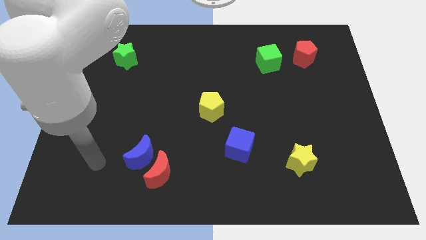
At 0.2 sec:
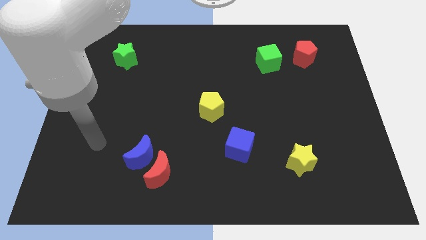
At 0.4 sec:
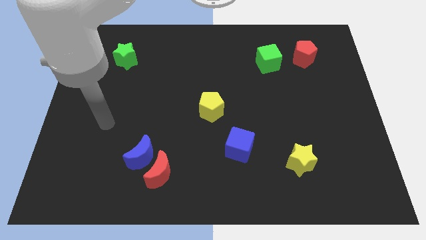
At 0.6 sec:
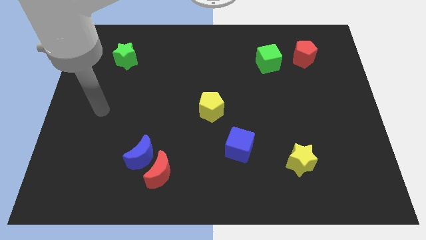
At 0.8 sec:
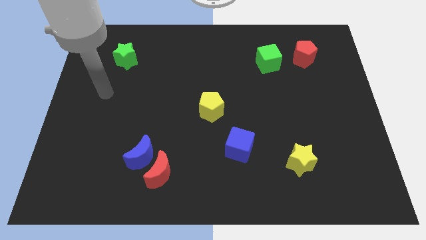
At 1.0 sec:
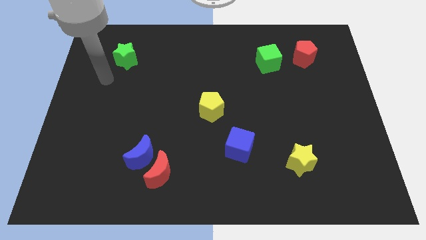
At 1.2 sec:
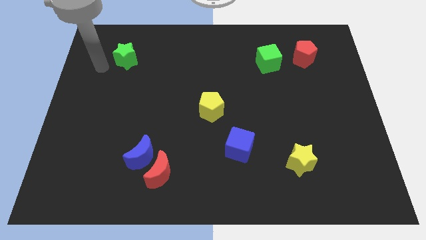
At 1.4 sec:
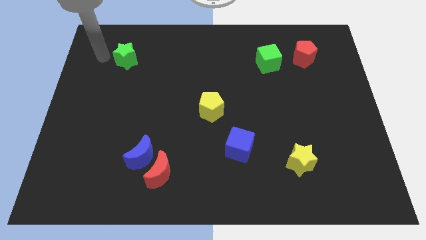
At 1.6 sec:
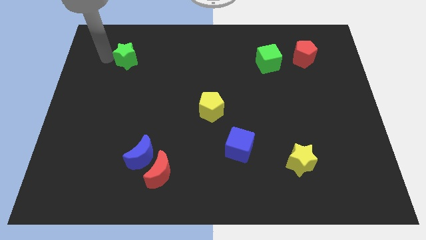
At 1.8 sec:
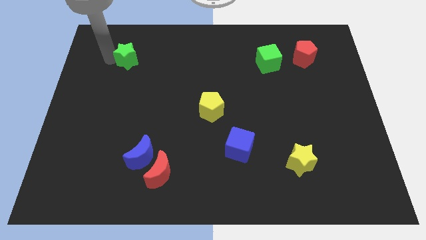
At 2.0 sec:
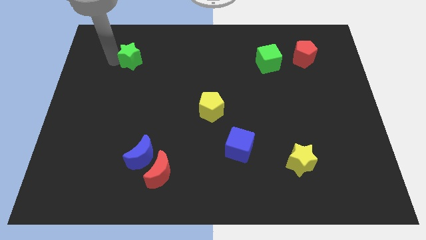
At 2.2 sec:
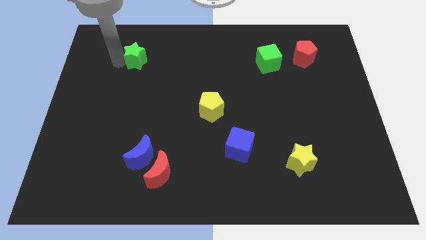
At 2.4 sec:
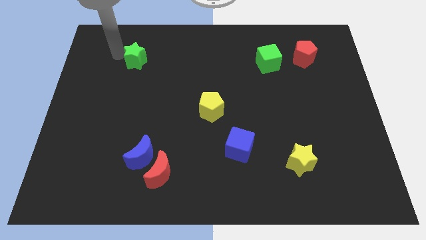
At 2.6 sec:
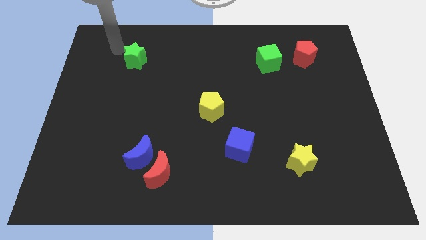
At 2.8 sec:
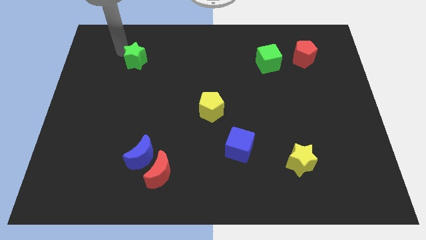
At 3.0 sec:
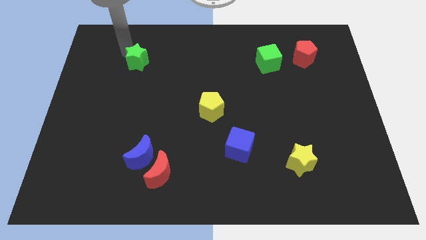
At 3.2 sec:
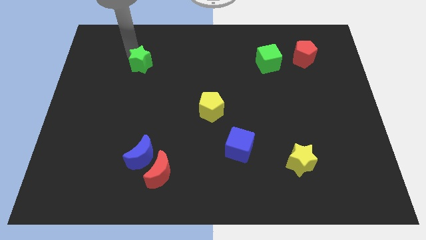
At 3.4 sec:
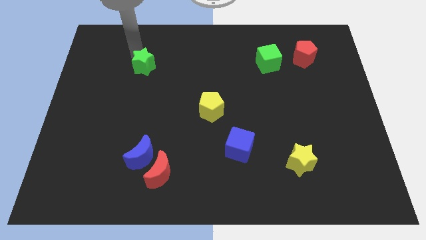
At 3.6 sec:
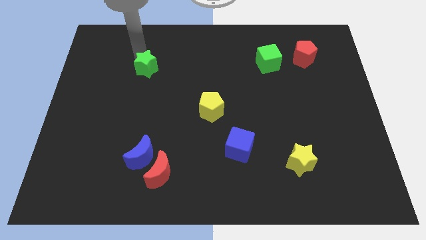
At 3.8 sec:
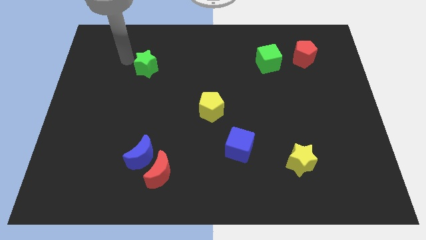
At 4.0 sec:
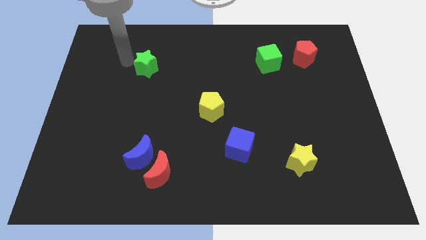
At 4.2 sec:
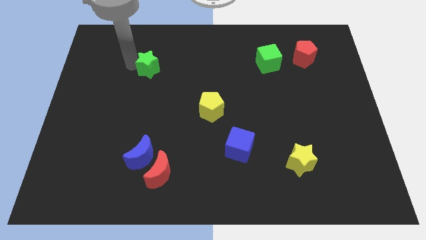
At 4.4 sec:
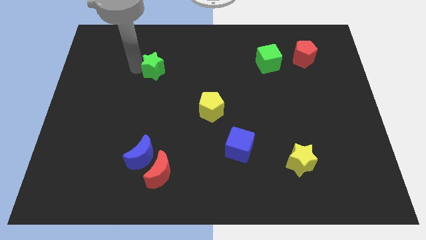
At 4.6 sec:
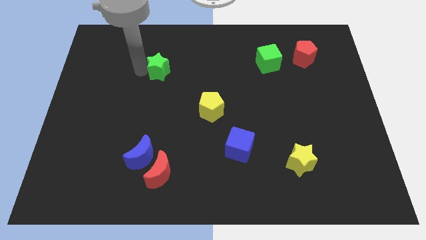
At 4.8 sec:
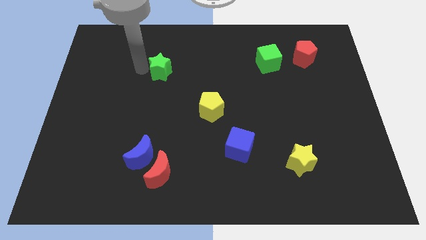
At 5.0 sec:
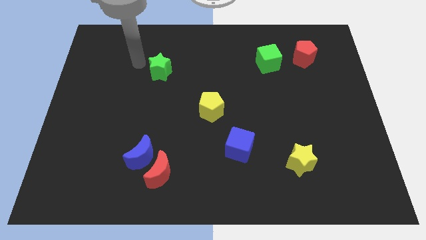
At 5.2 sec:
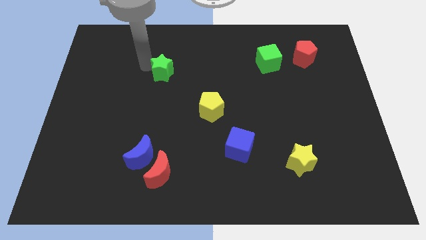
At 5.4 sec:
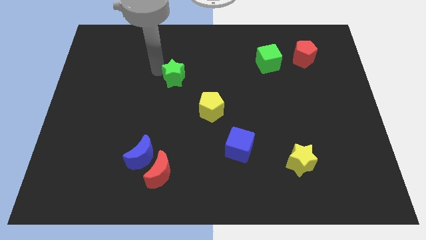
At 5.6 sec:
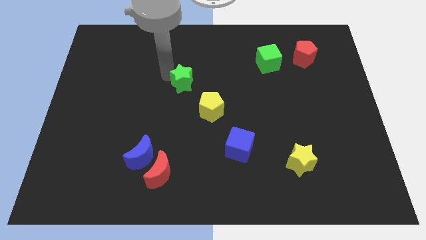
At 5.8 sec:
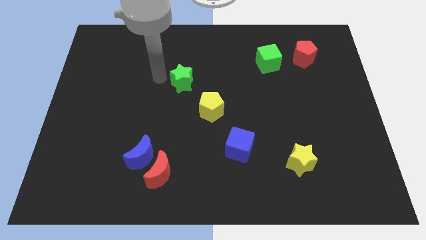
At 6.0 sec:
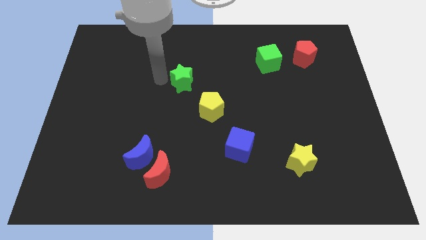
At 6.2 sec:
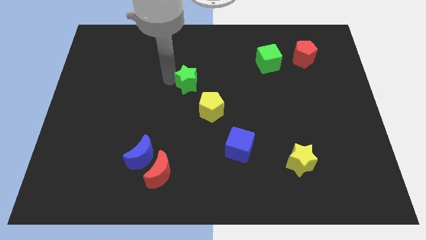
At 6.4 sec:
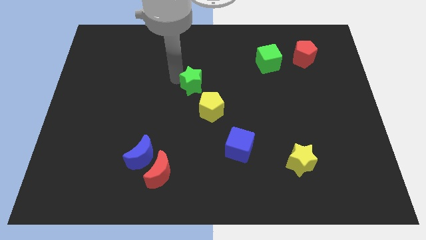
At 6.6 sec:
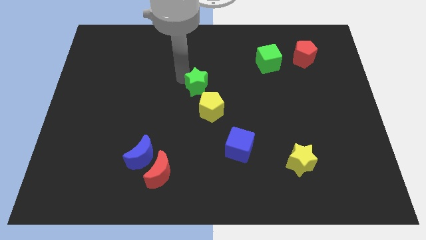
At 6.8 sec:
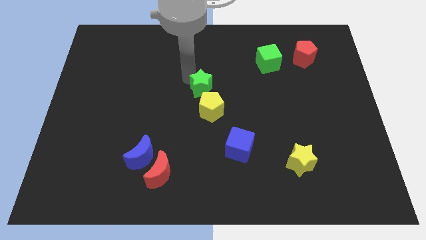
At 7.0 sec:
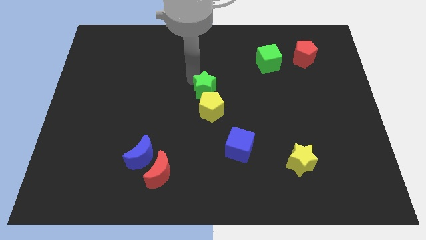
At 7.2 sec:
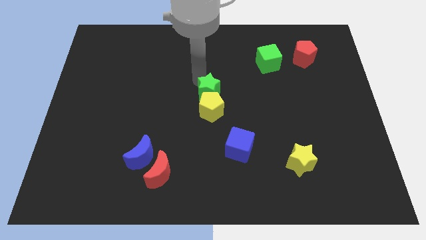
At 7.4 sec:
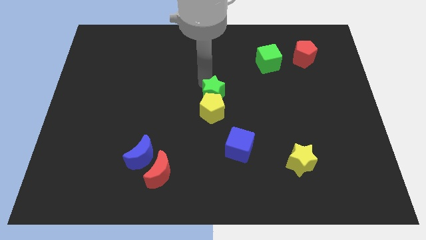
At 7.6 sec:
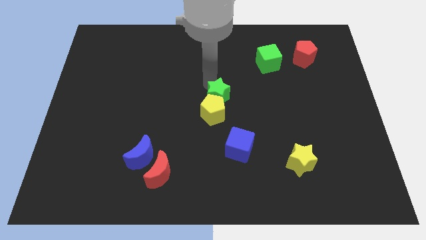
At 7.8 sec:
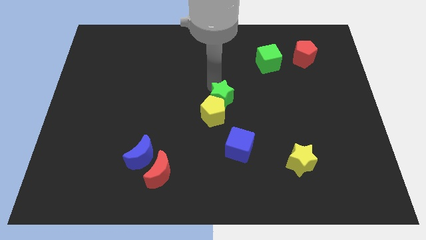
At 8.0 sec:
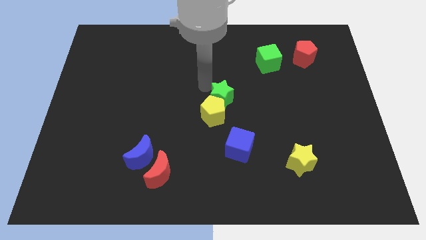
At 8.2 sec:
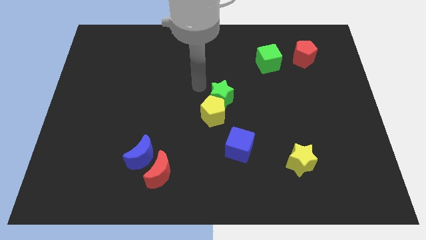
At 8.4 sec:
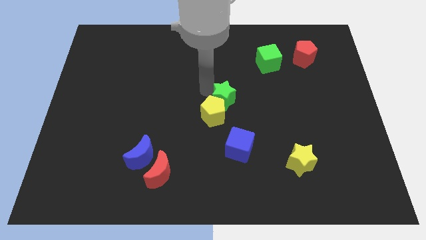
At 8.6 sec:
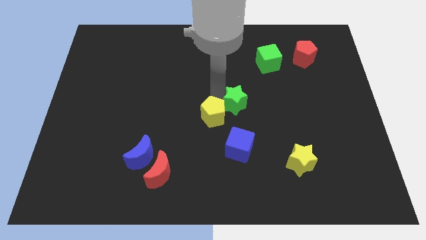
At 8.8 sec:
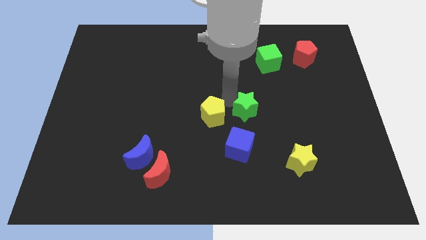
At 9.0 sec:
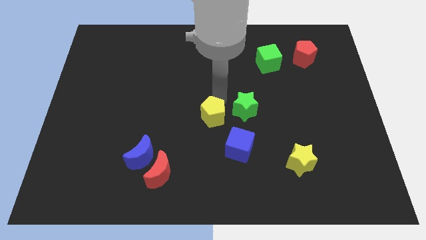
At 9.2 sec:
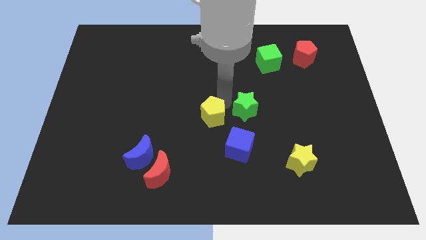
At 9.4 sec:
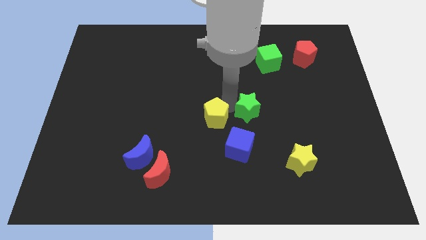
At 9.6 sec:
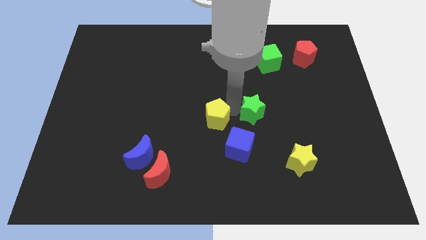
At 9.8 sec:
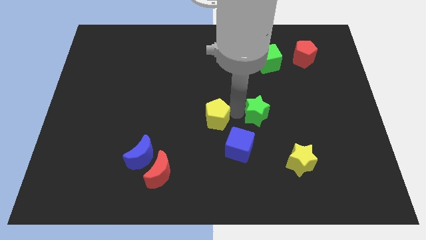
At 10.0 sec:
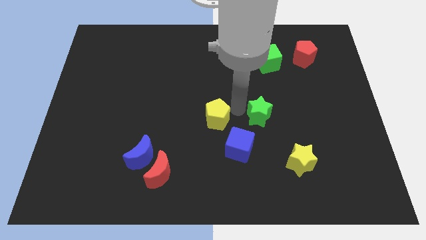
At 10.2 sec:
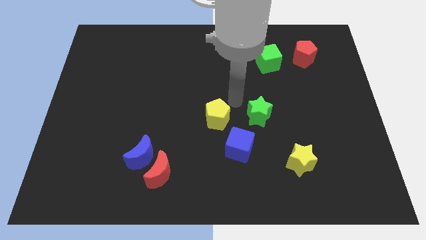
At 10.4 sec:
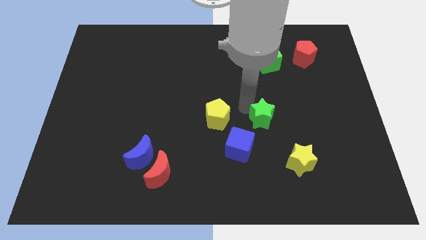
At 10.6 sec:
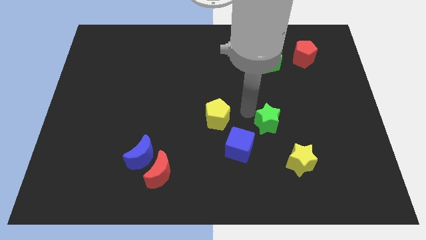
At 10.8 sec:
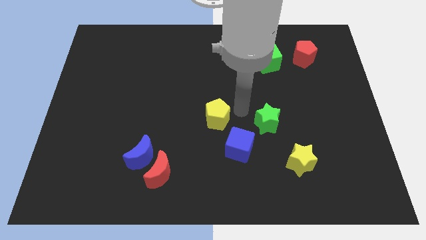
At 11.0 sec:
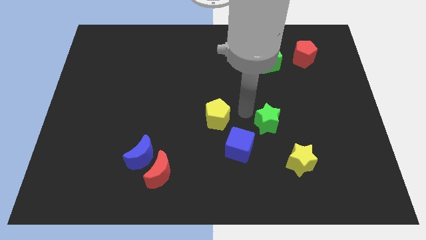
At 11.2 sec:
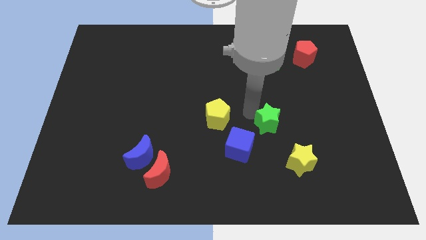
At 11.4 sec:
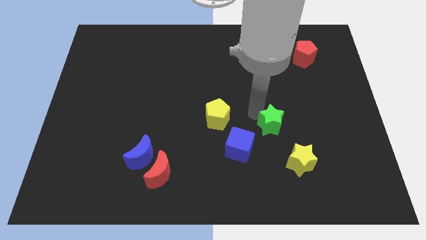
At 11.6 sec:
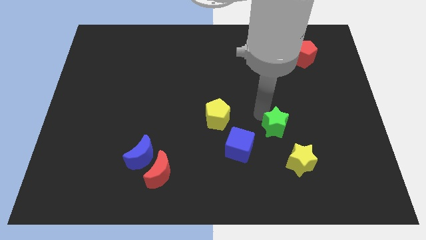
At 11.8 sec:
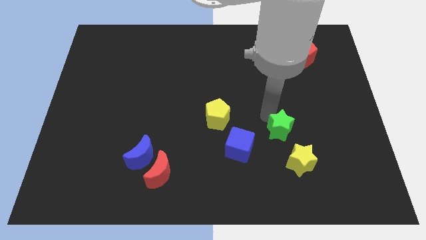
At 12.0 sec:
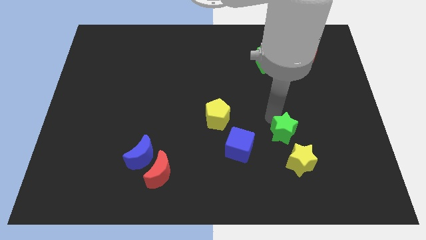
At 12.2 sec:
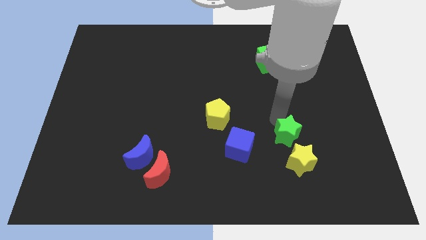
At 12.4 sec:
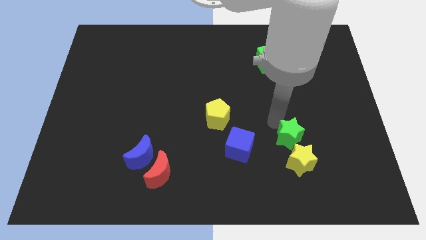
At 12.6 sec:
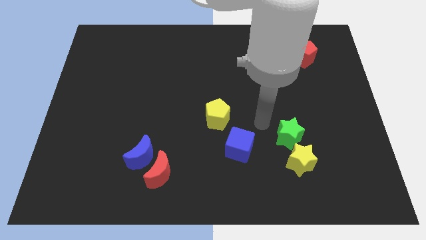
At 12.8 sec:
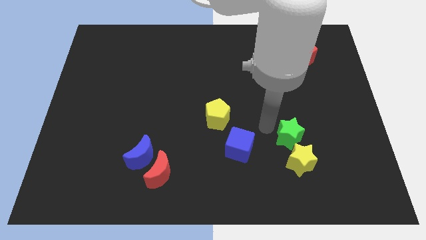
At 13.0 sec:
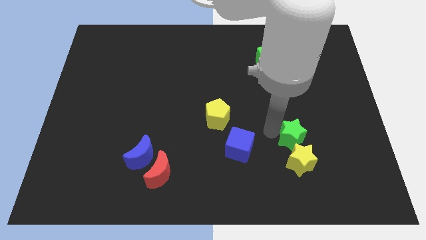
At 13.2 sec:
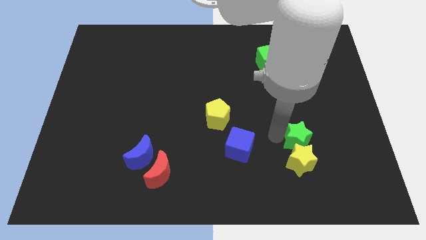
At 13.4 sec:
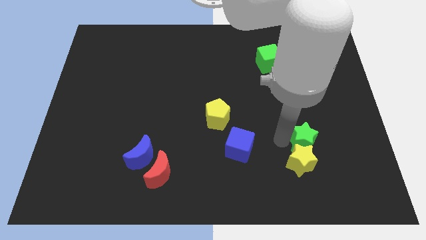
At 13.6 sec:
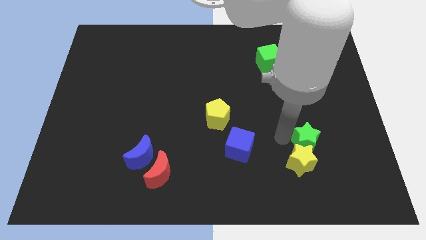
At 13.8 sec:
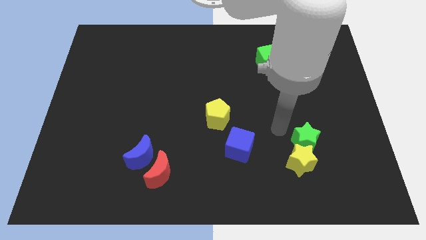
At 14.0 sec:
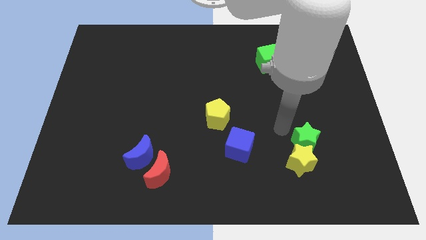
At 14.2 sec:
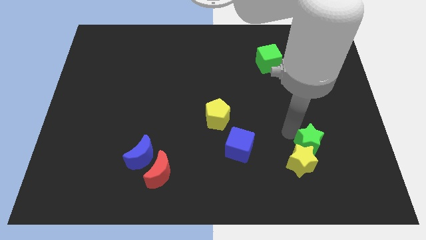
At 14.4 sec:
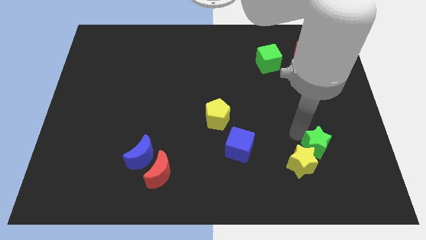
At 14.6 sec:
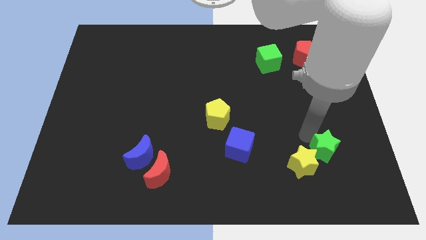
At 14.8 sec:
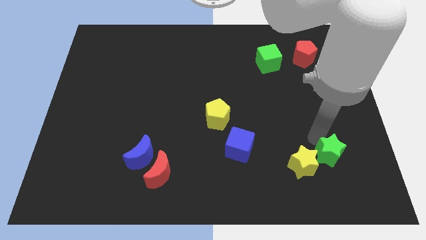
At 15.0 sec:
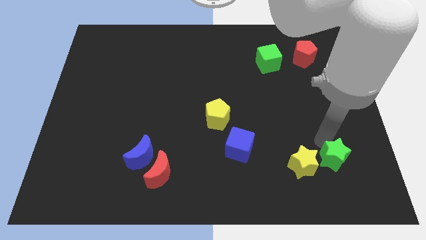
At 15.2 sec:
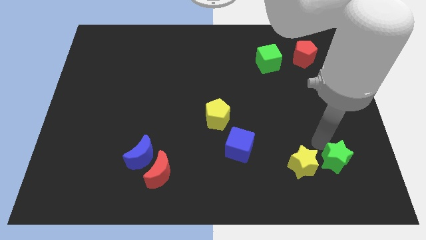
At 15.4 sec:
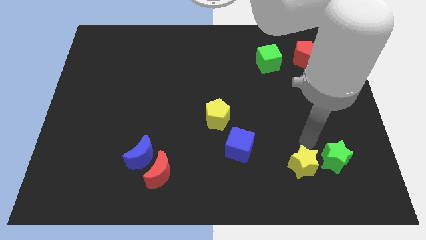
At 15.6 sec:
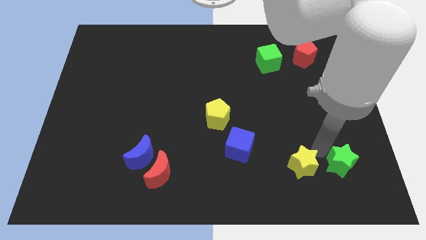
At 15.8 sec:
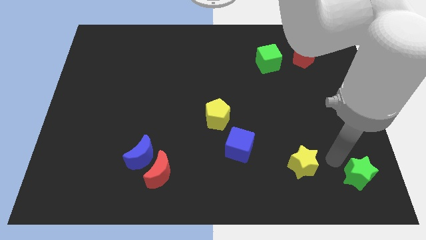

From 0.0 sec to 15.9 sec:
slide the green star to the bottom right
